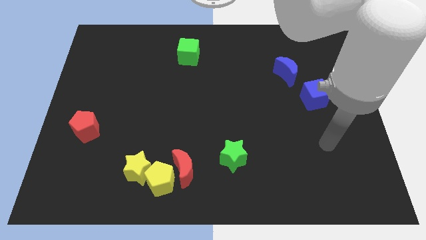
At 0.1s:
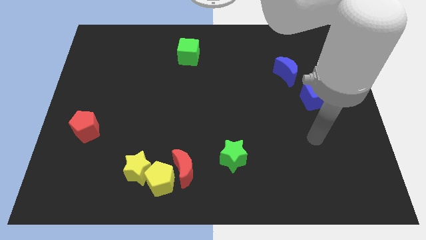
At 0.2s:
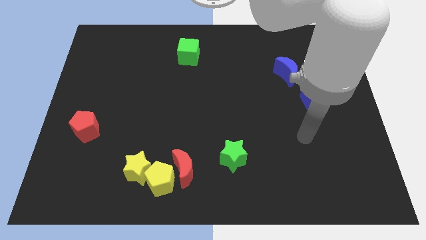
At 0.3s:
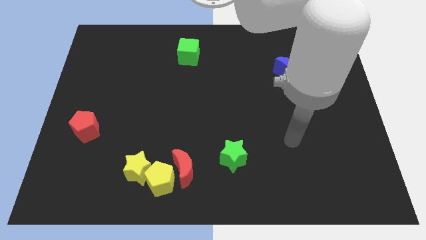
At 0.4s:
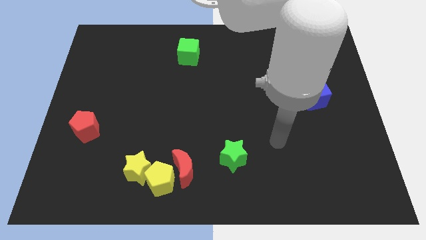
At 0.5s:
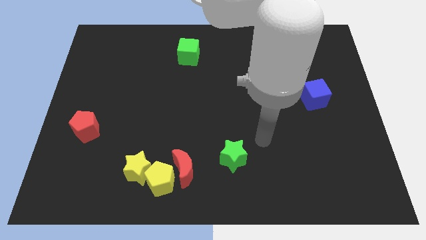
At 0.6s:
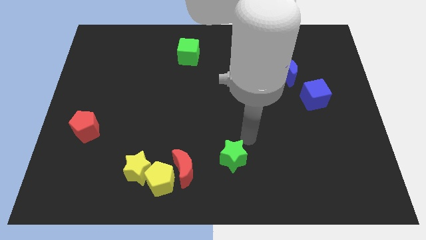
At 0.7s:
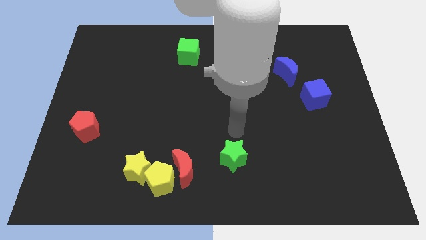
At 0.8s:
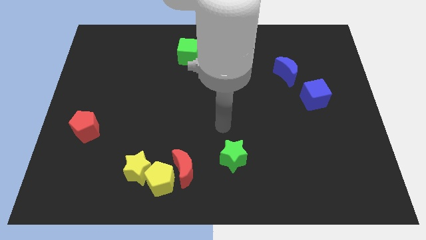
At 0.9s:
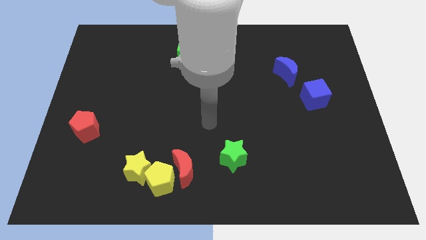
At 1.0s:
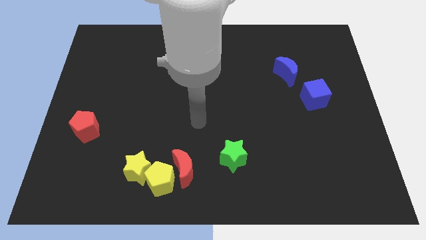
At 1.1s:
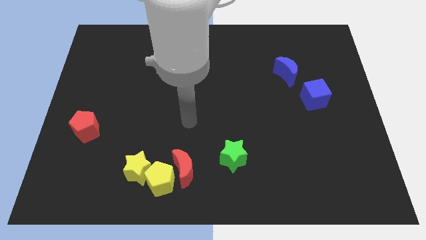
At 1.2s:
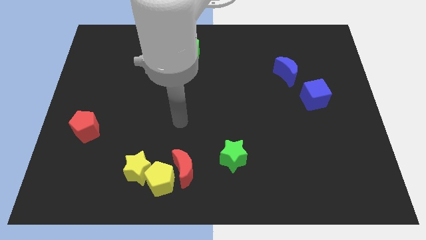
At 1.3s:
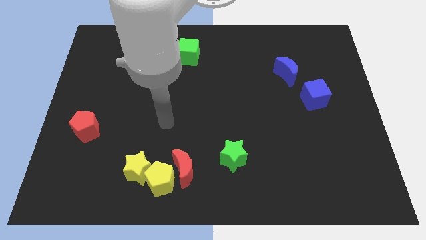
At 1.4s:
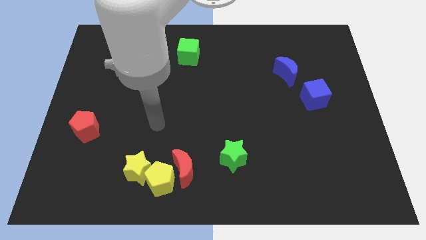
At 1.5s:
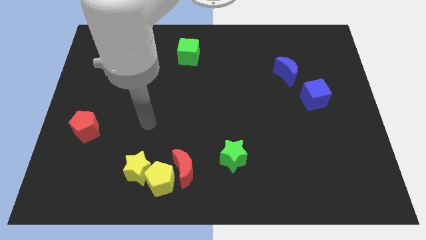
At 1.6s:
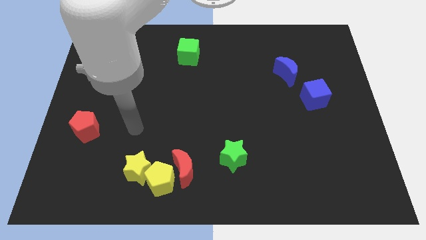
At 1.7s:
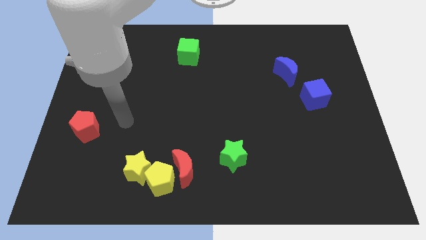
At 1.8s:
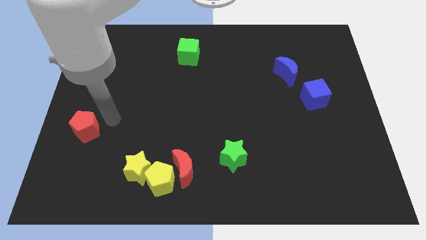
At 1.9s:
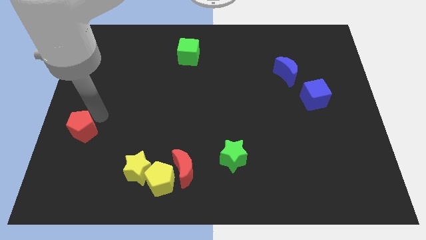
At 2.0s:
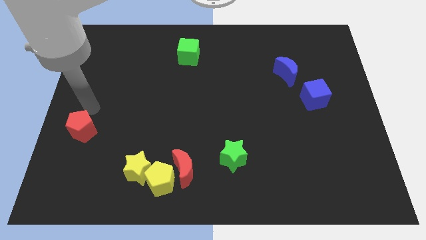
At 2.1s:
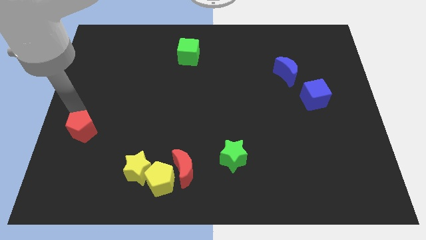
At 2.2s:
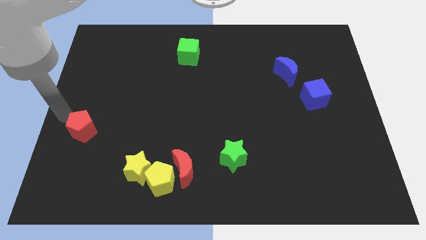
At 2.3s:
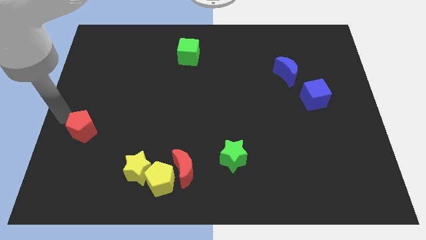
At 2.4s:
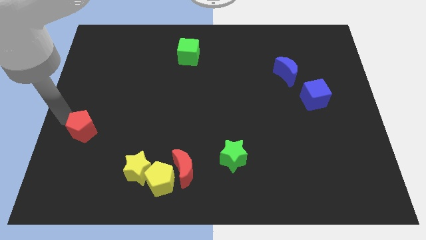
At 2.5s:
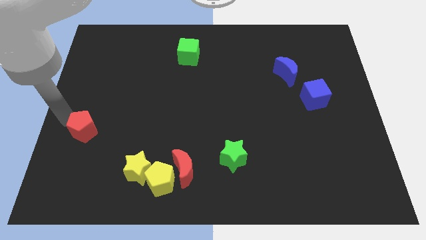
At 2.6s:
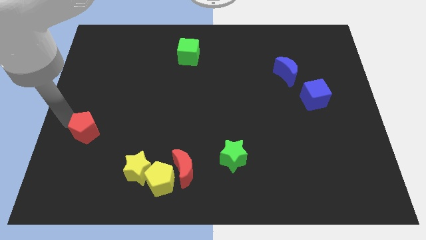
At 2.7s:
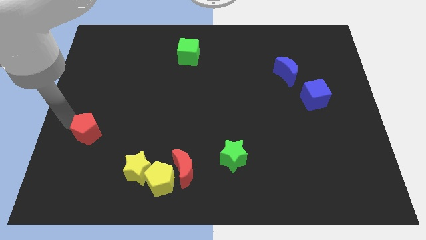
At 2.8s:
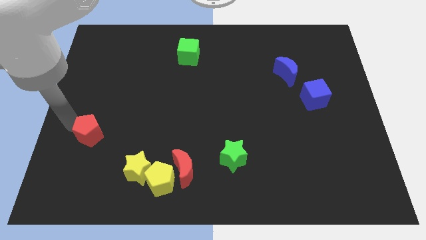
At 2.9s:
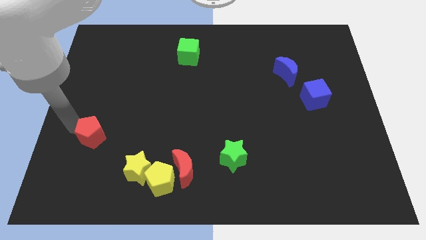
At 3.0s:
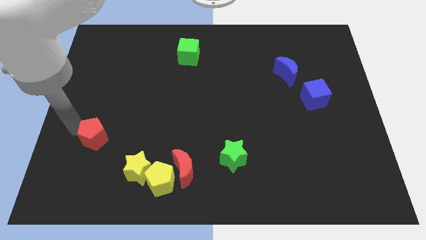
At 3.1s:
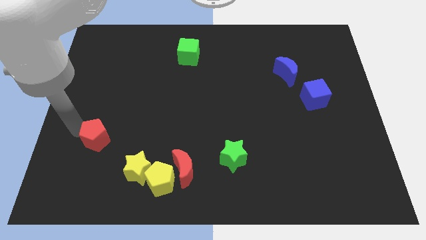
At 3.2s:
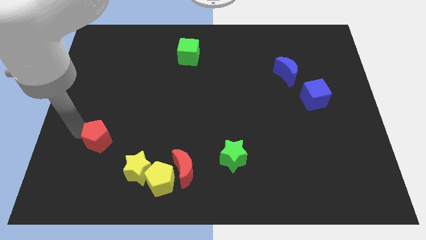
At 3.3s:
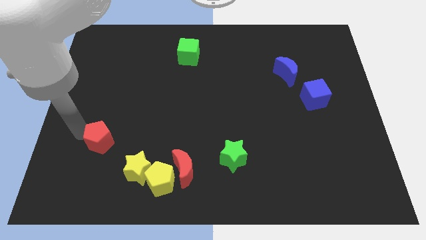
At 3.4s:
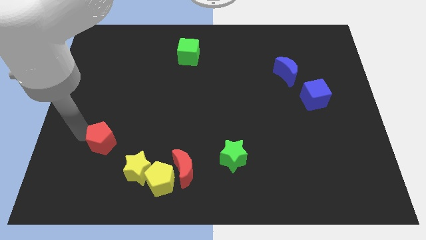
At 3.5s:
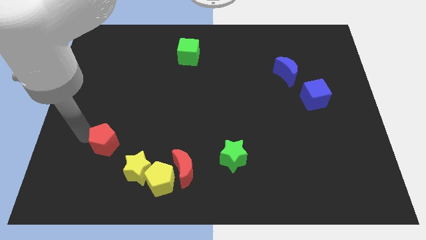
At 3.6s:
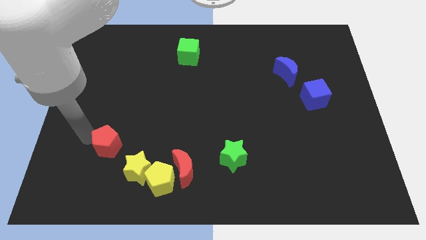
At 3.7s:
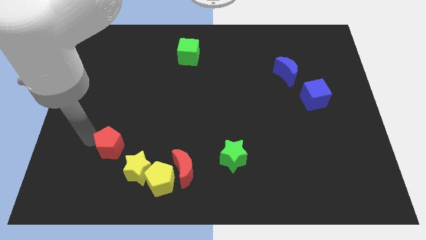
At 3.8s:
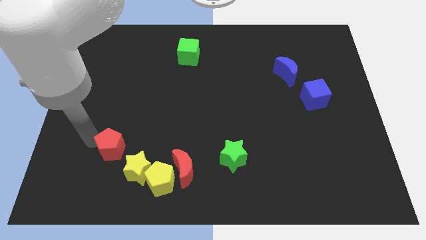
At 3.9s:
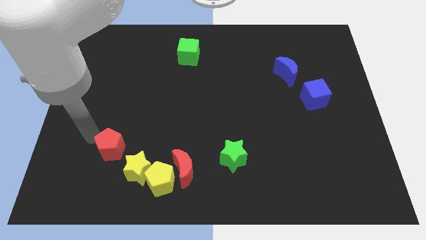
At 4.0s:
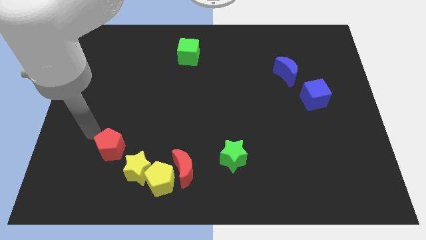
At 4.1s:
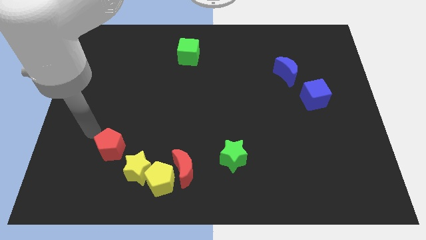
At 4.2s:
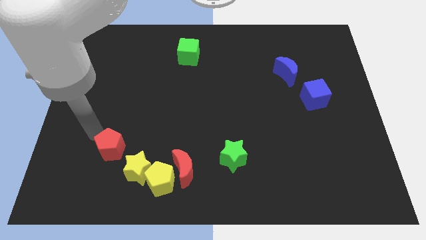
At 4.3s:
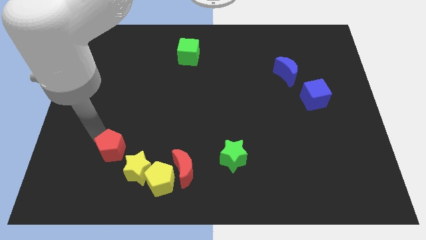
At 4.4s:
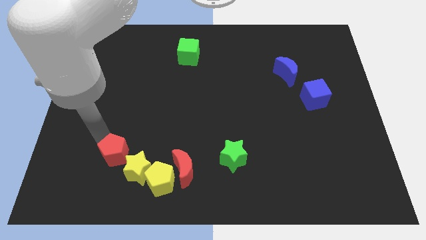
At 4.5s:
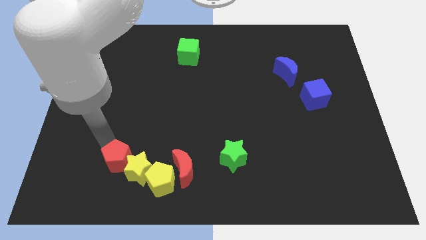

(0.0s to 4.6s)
slide the red pentagon close to the yellow star

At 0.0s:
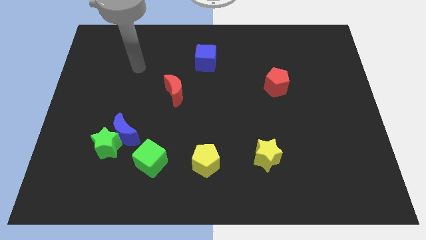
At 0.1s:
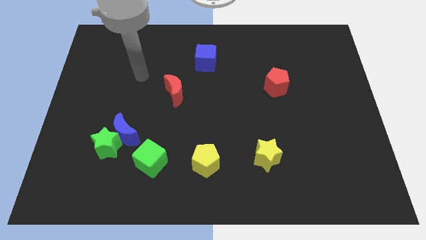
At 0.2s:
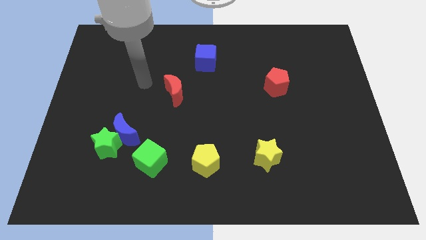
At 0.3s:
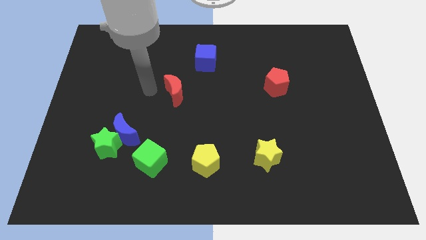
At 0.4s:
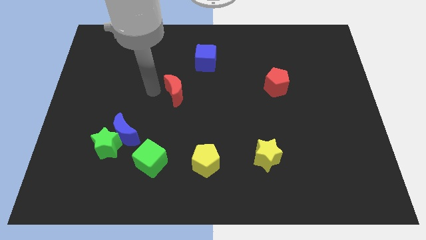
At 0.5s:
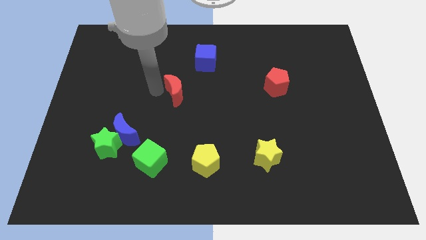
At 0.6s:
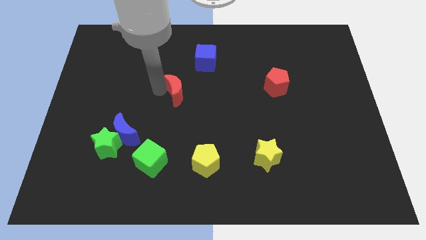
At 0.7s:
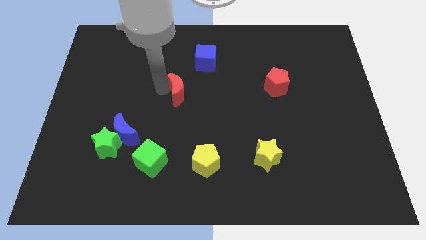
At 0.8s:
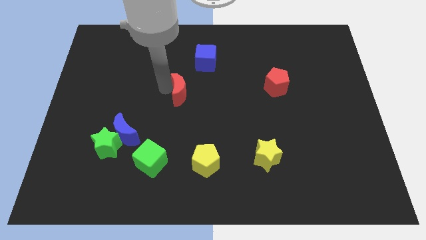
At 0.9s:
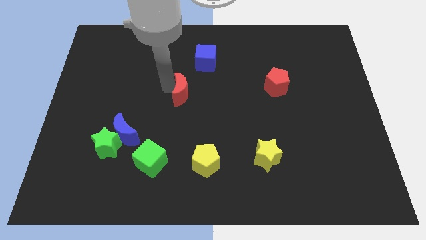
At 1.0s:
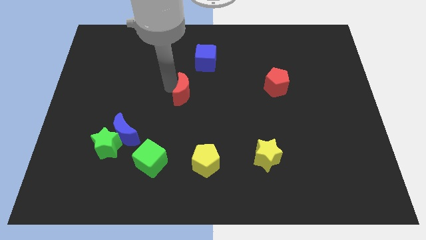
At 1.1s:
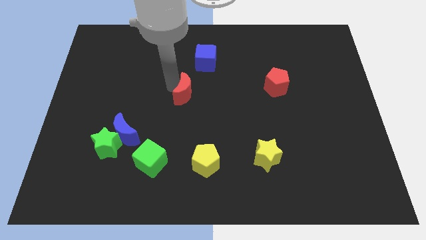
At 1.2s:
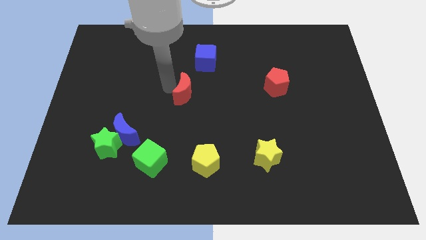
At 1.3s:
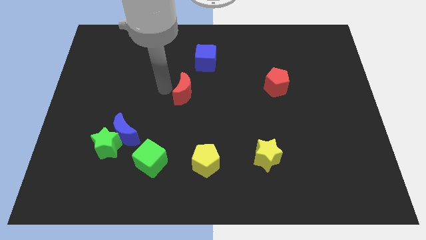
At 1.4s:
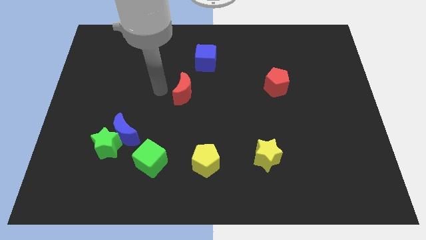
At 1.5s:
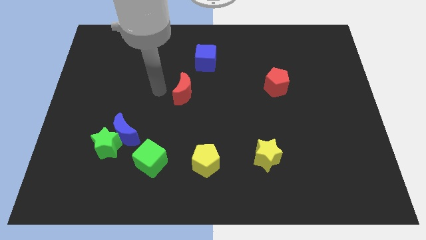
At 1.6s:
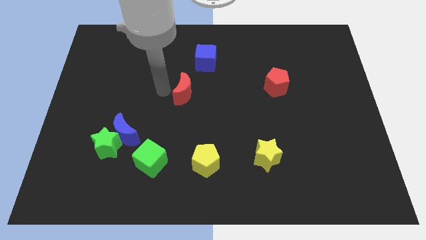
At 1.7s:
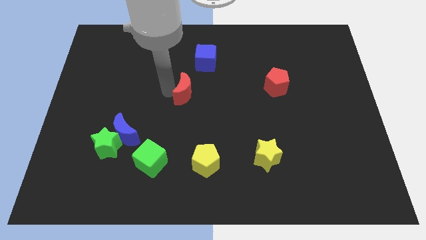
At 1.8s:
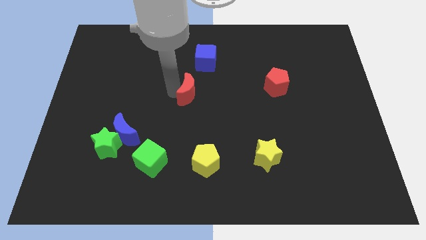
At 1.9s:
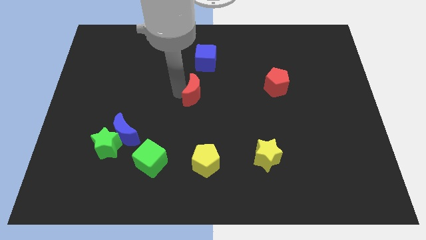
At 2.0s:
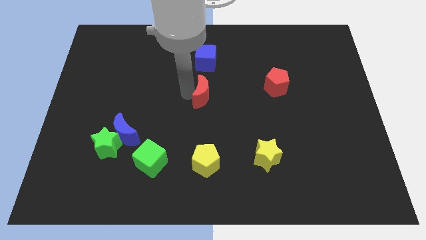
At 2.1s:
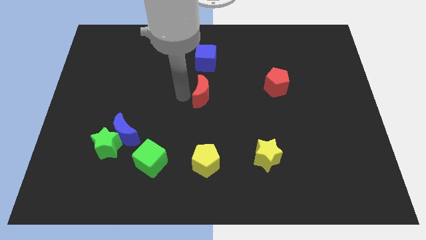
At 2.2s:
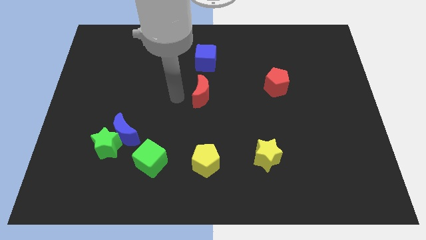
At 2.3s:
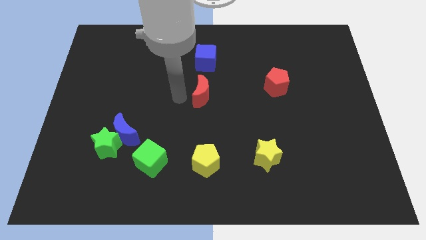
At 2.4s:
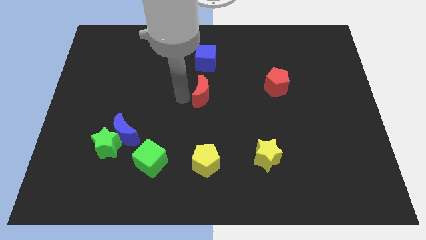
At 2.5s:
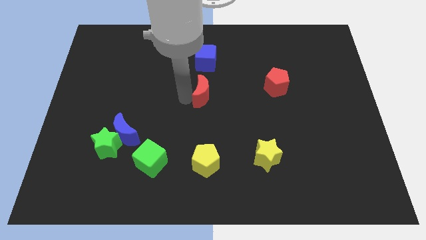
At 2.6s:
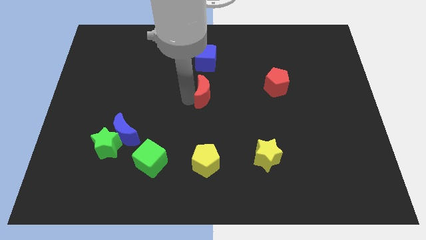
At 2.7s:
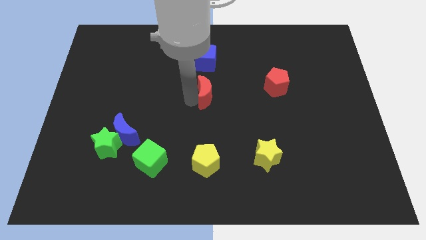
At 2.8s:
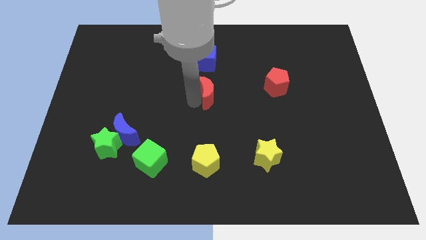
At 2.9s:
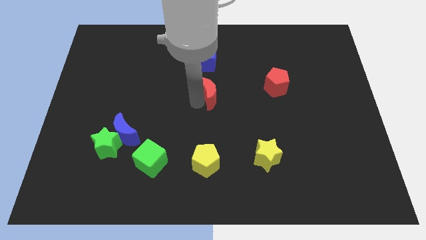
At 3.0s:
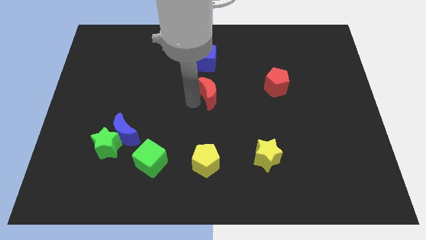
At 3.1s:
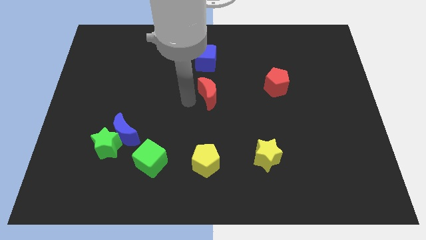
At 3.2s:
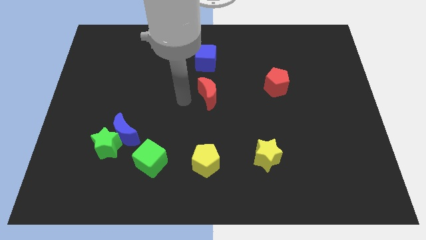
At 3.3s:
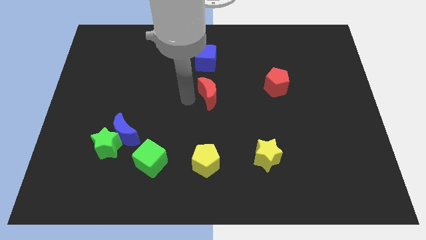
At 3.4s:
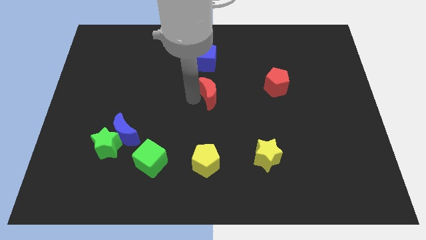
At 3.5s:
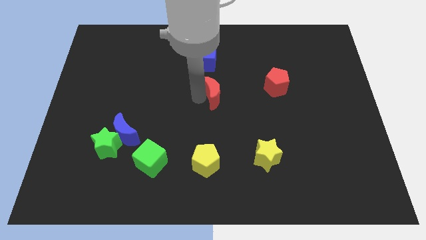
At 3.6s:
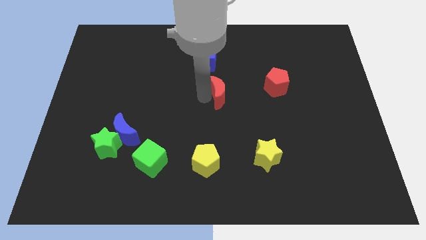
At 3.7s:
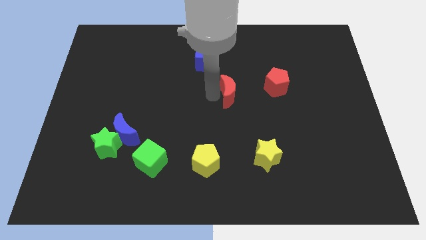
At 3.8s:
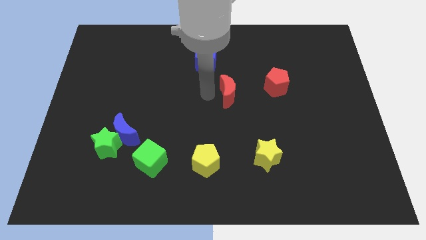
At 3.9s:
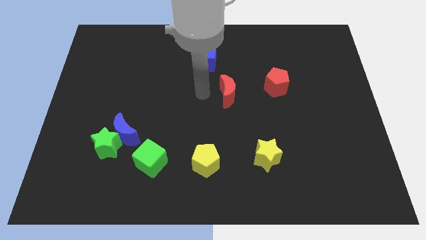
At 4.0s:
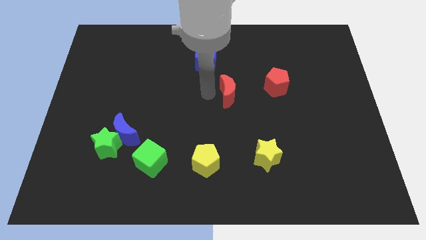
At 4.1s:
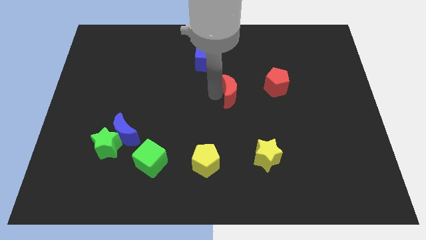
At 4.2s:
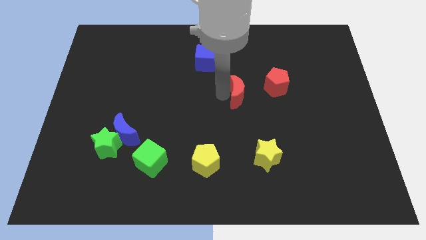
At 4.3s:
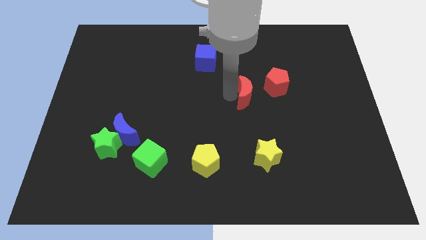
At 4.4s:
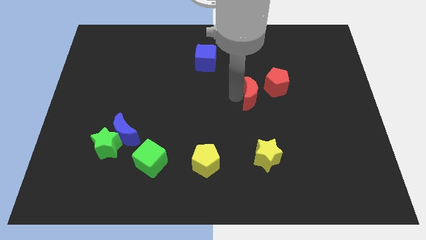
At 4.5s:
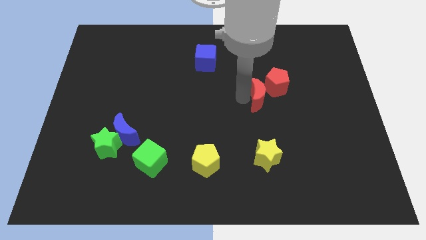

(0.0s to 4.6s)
slide the red moon close to the red pentagon
